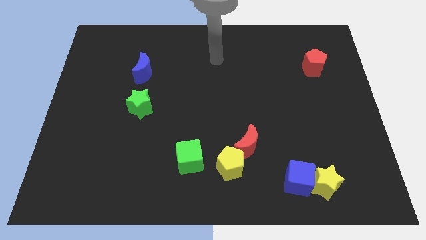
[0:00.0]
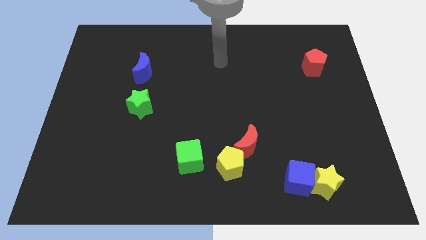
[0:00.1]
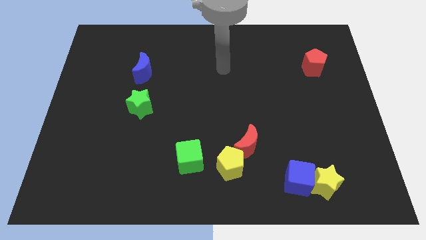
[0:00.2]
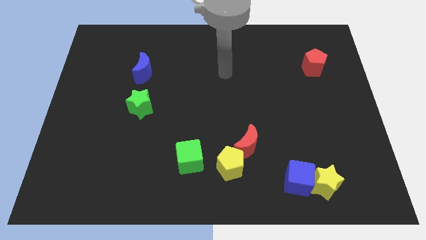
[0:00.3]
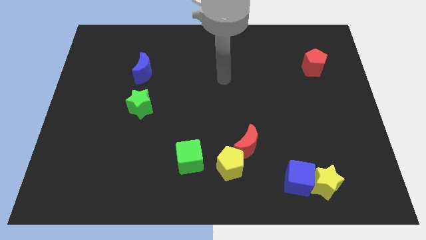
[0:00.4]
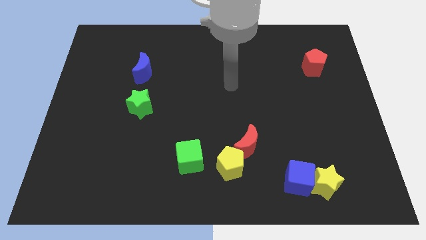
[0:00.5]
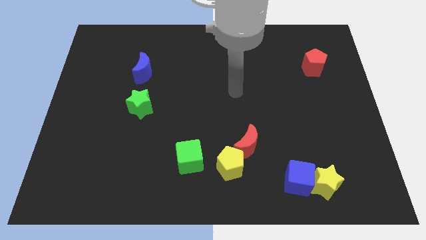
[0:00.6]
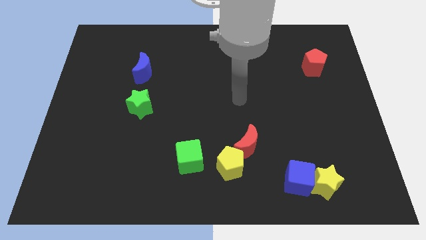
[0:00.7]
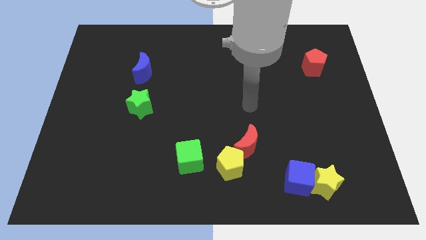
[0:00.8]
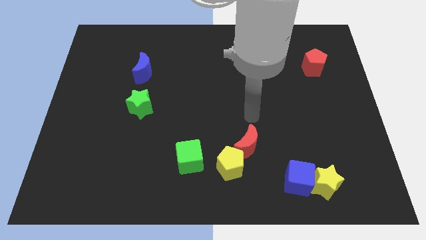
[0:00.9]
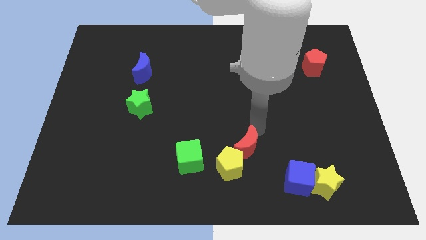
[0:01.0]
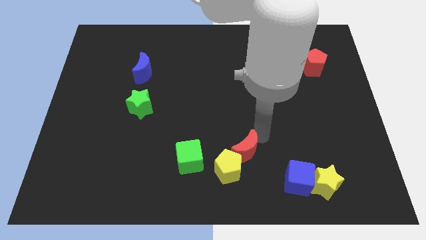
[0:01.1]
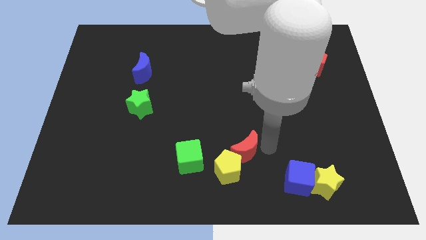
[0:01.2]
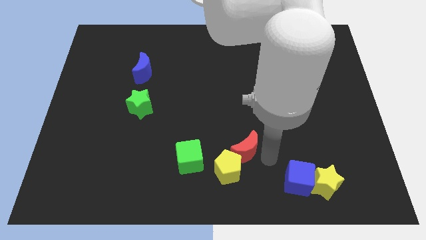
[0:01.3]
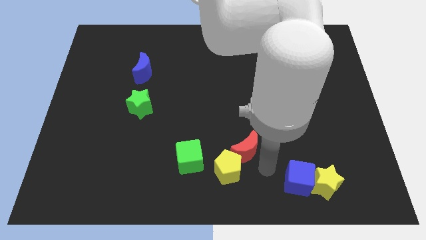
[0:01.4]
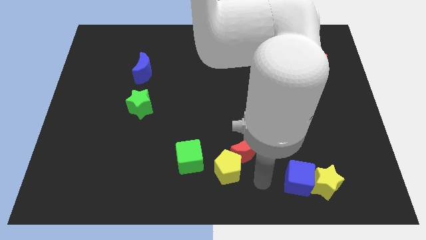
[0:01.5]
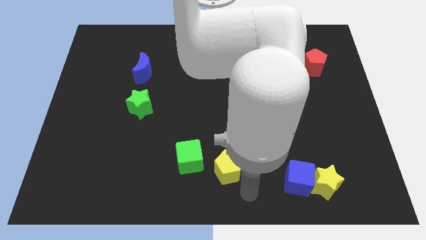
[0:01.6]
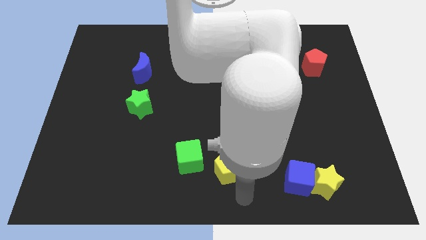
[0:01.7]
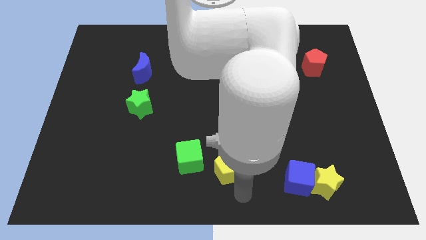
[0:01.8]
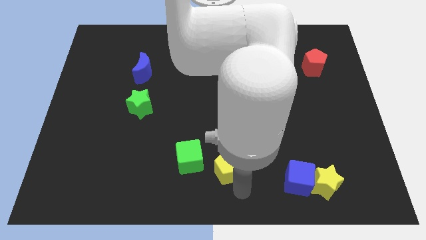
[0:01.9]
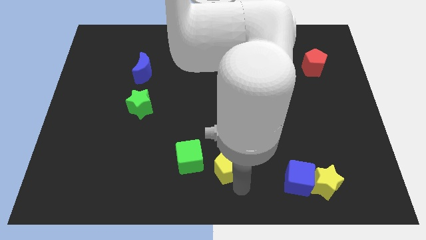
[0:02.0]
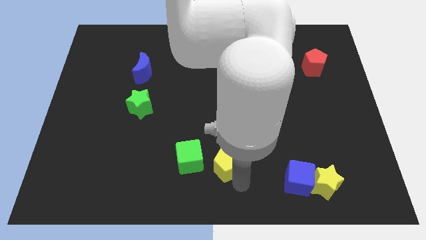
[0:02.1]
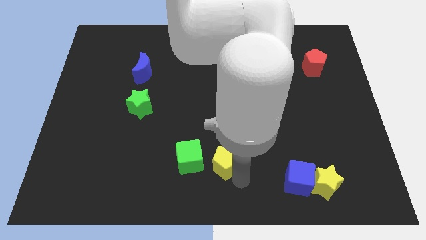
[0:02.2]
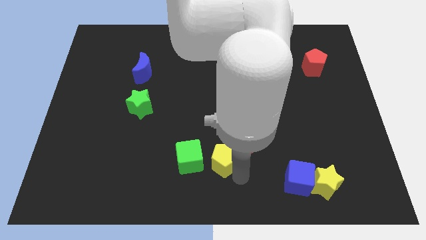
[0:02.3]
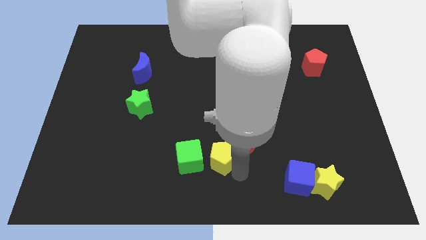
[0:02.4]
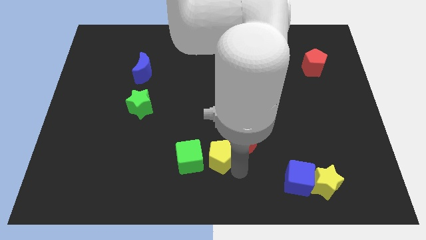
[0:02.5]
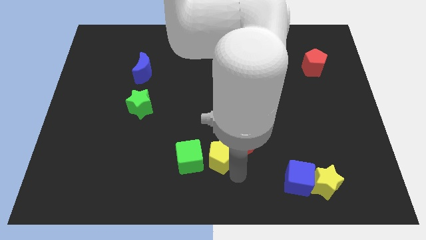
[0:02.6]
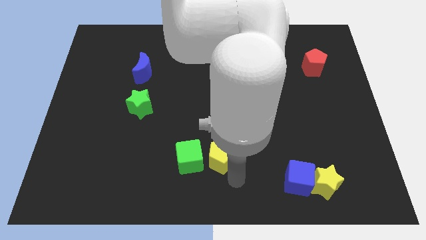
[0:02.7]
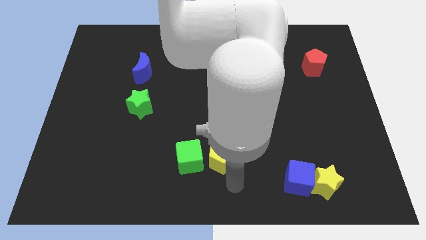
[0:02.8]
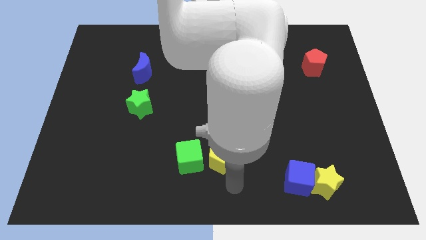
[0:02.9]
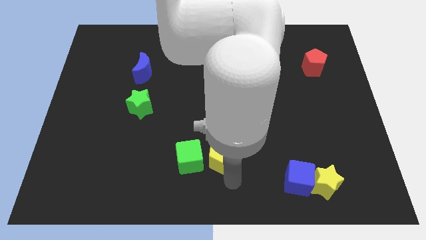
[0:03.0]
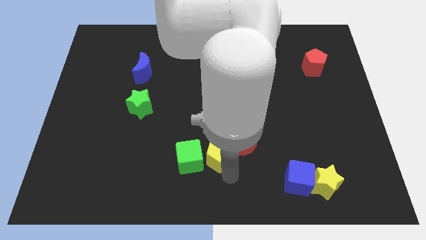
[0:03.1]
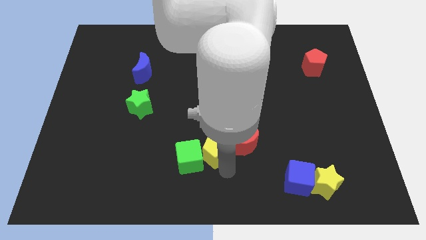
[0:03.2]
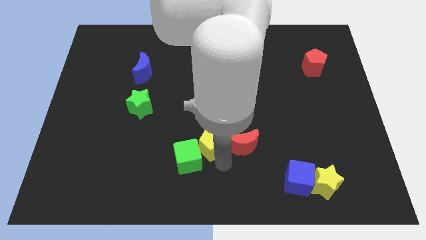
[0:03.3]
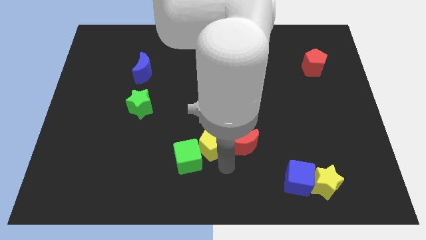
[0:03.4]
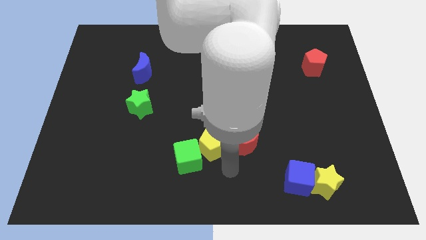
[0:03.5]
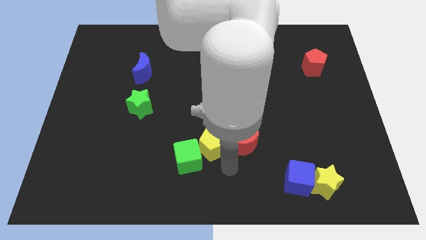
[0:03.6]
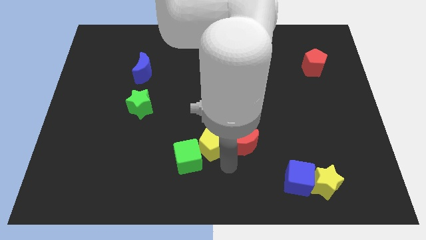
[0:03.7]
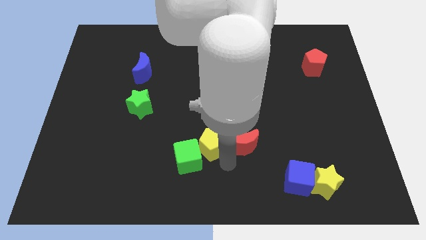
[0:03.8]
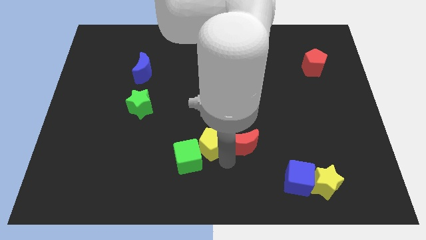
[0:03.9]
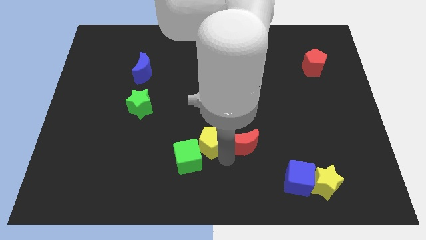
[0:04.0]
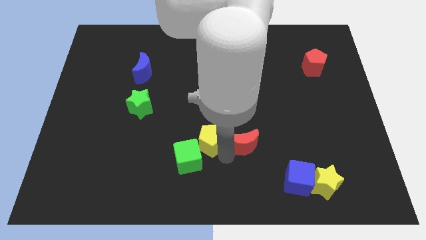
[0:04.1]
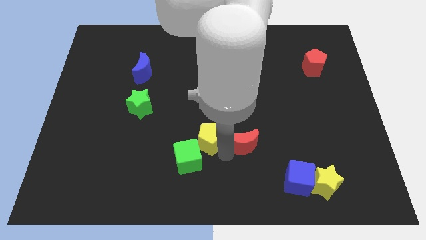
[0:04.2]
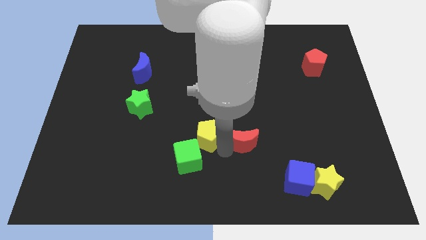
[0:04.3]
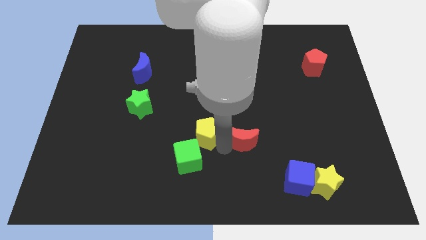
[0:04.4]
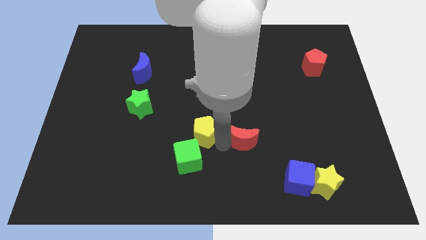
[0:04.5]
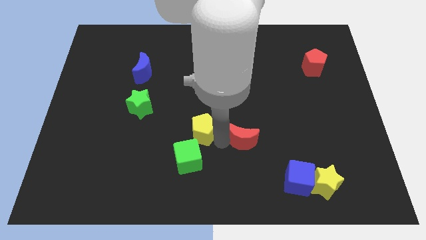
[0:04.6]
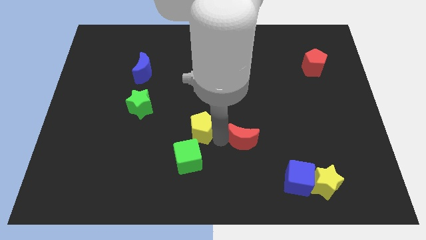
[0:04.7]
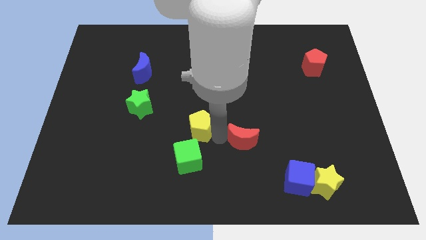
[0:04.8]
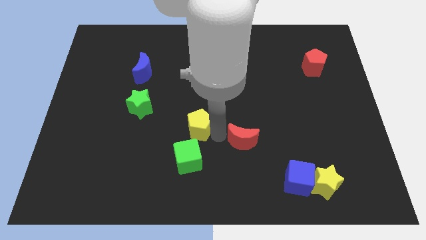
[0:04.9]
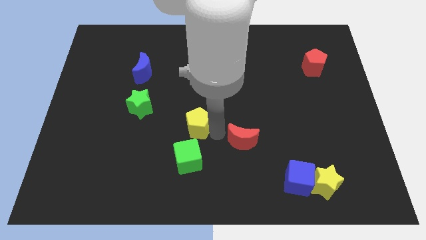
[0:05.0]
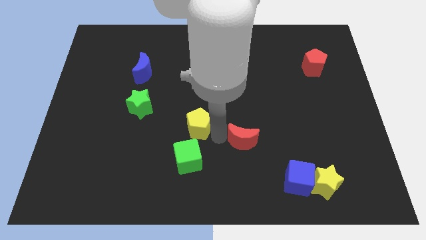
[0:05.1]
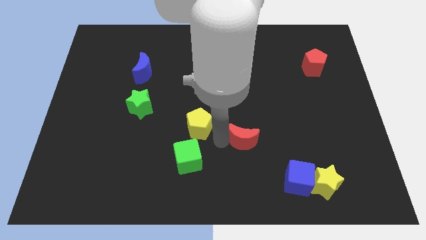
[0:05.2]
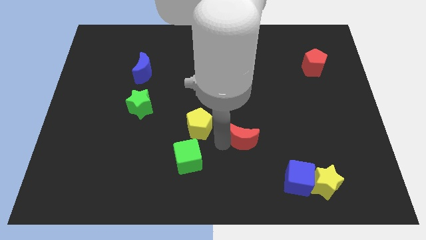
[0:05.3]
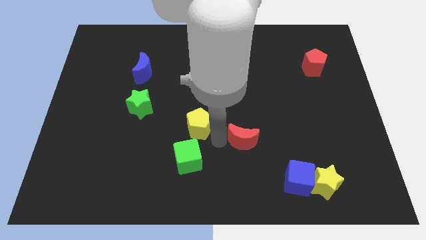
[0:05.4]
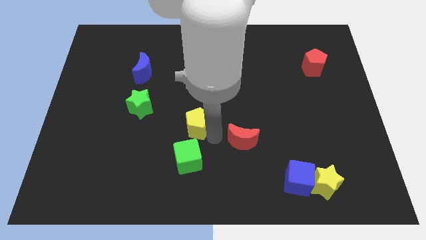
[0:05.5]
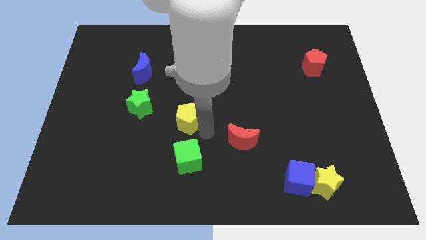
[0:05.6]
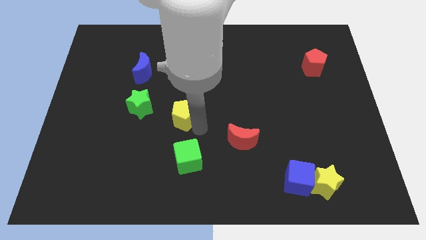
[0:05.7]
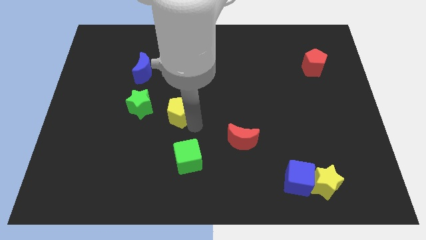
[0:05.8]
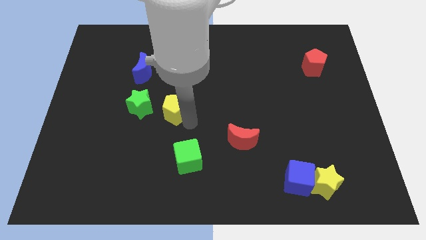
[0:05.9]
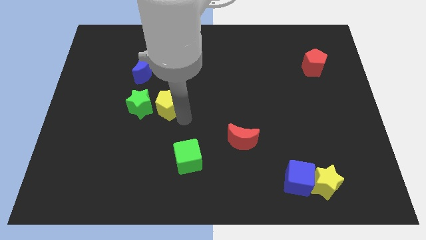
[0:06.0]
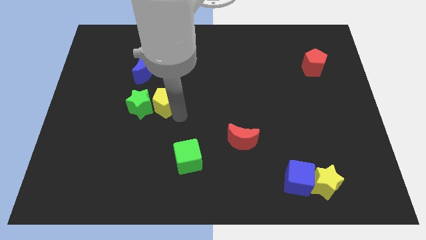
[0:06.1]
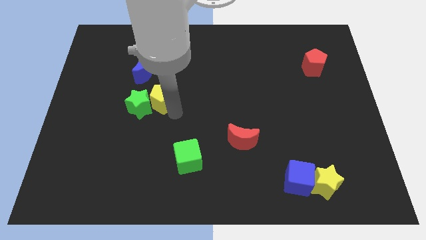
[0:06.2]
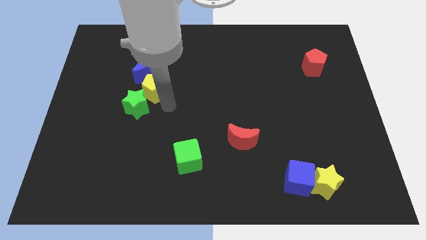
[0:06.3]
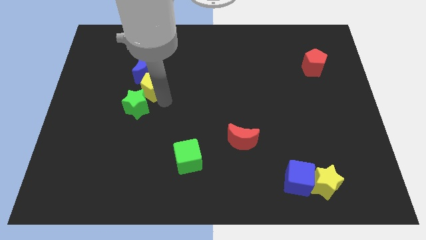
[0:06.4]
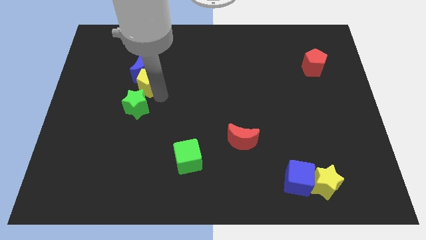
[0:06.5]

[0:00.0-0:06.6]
put the yellow pentagon towards the blue moon

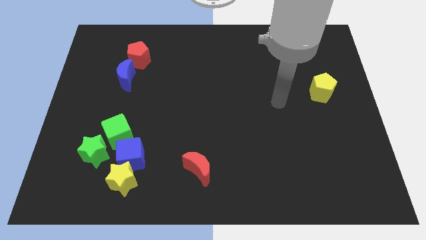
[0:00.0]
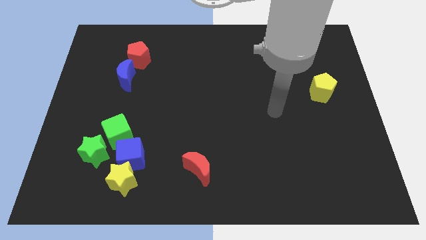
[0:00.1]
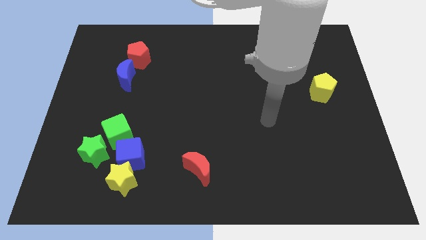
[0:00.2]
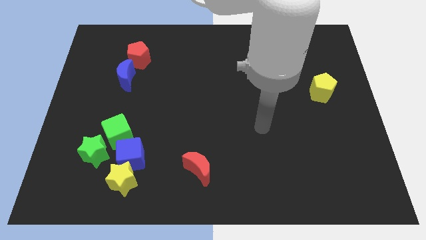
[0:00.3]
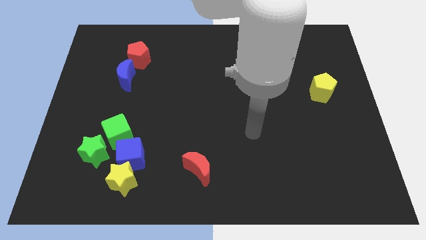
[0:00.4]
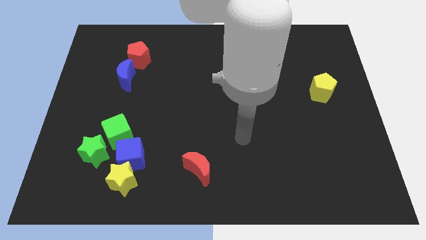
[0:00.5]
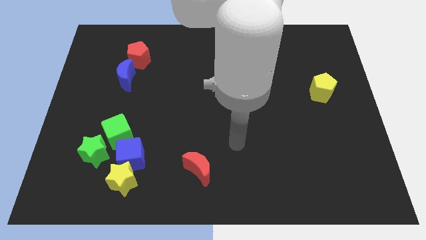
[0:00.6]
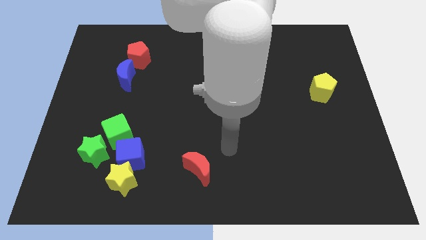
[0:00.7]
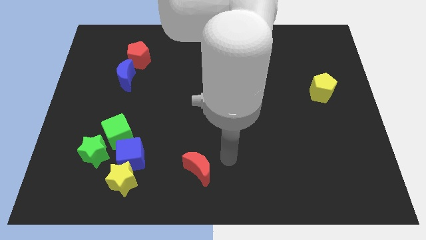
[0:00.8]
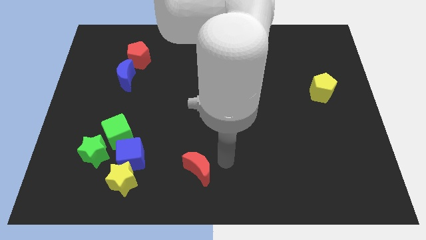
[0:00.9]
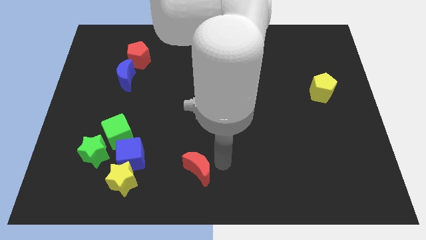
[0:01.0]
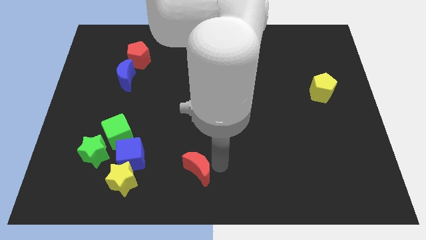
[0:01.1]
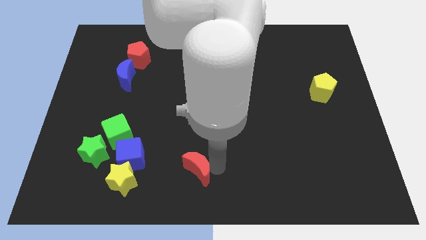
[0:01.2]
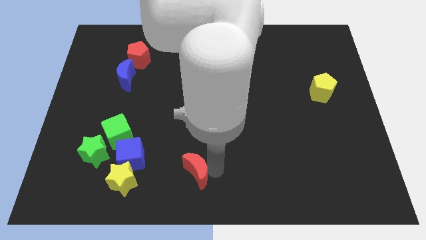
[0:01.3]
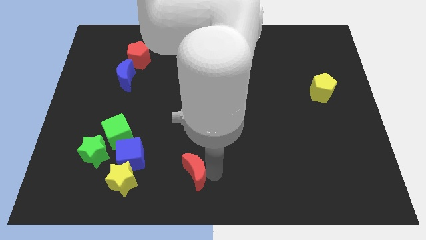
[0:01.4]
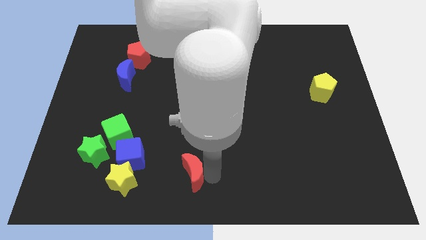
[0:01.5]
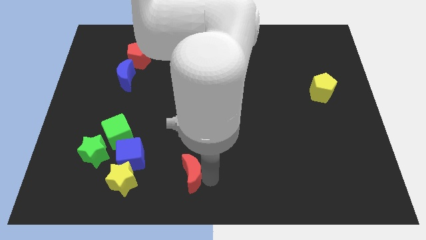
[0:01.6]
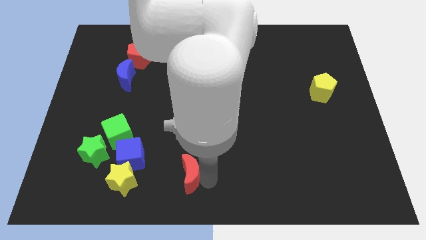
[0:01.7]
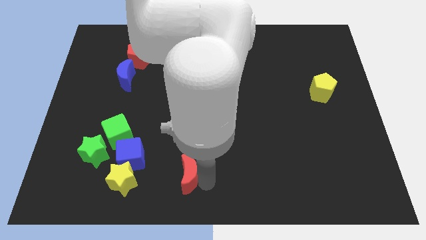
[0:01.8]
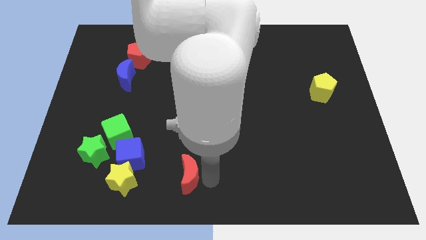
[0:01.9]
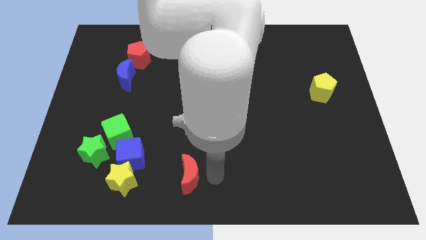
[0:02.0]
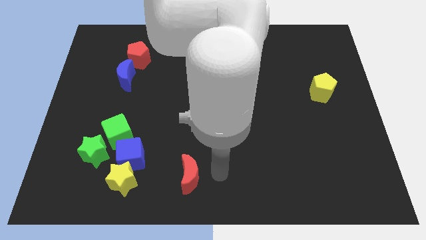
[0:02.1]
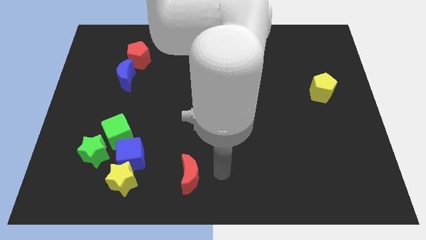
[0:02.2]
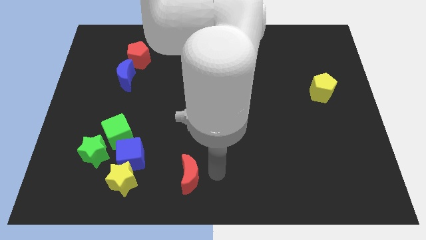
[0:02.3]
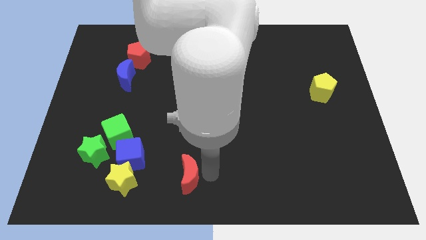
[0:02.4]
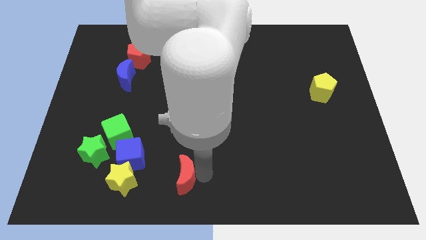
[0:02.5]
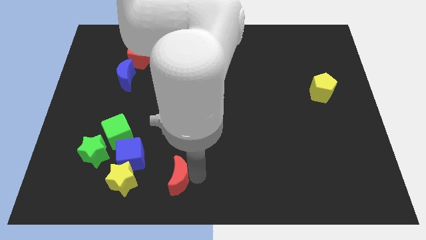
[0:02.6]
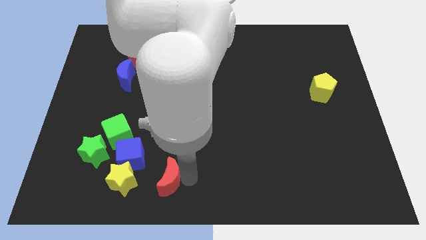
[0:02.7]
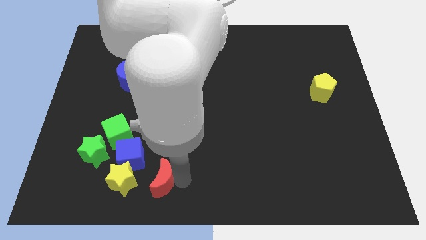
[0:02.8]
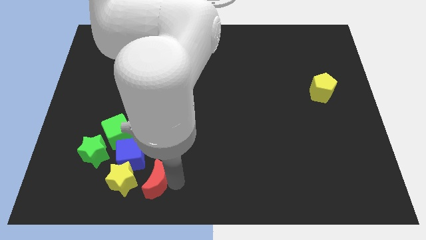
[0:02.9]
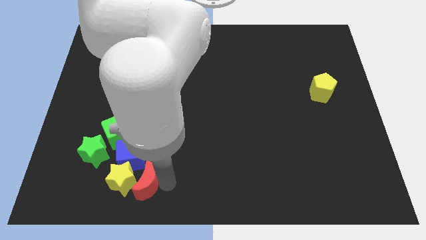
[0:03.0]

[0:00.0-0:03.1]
move the red moon next to the yellow star
